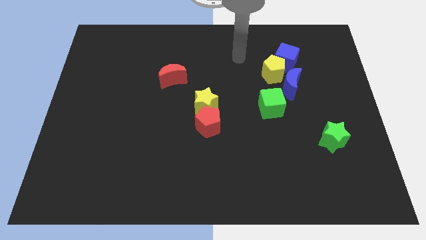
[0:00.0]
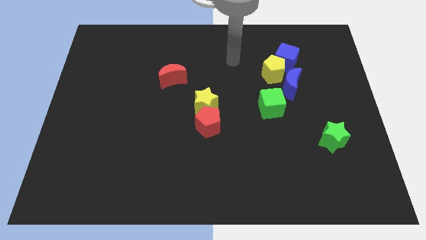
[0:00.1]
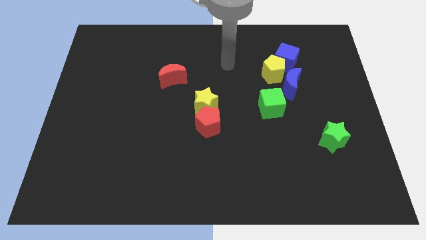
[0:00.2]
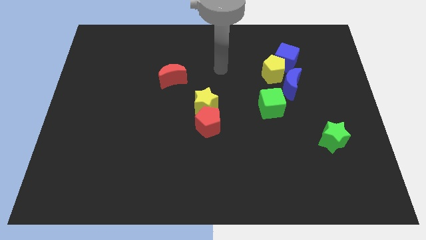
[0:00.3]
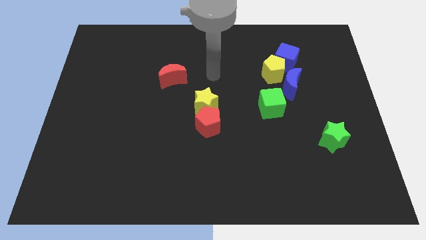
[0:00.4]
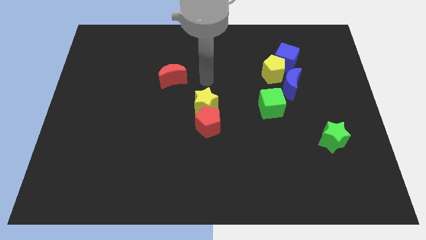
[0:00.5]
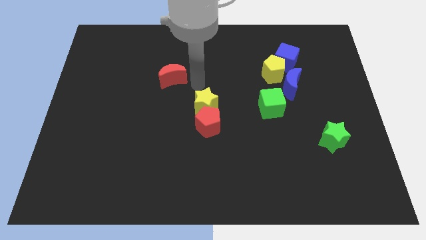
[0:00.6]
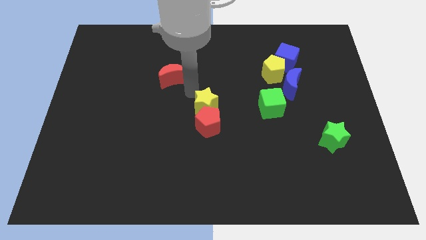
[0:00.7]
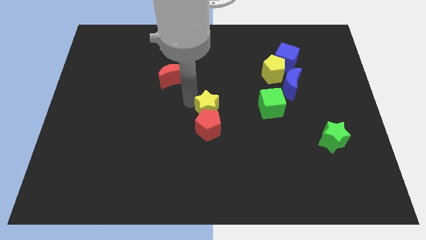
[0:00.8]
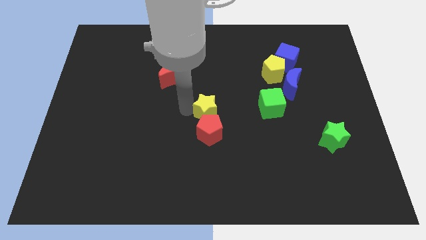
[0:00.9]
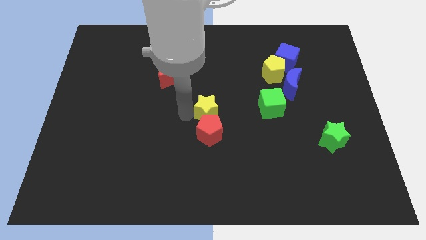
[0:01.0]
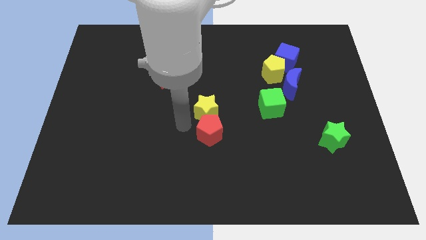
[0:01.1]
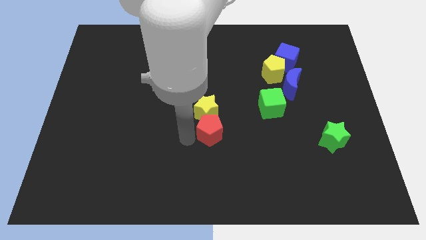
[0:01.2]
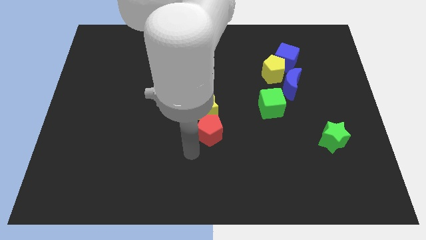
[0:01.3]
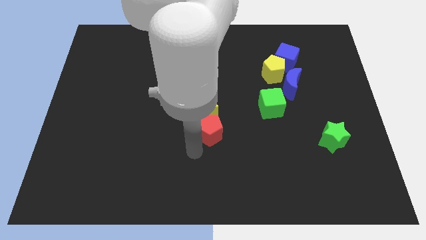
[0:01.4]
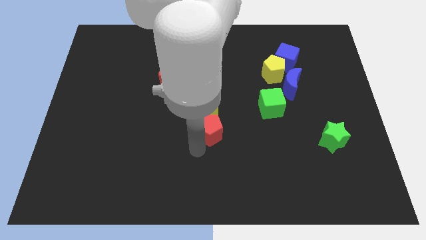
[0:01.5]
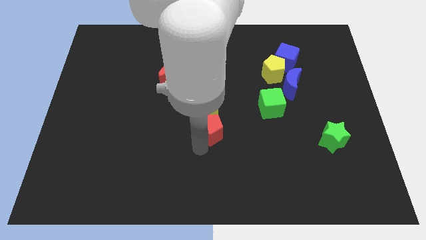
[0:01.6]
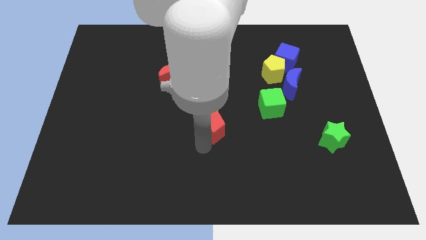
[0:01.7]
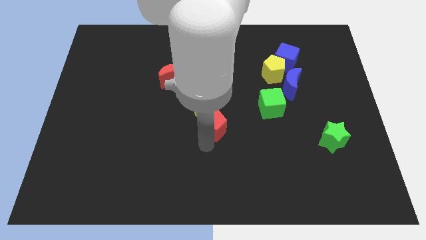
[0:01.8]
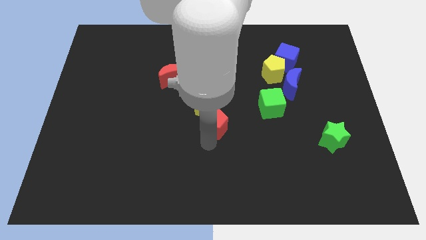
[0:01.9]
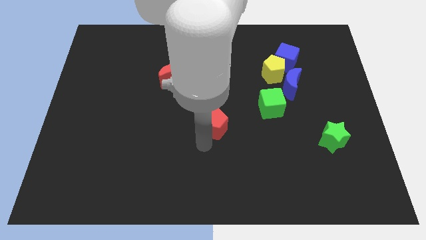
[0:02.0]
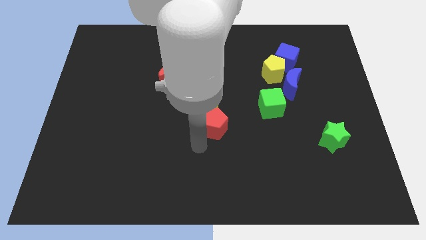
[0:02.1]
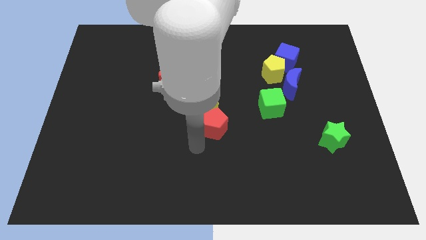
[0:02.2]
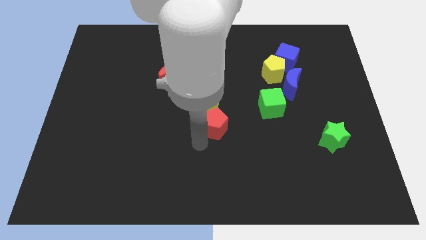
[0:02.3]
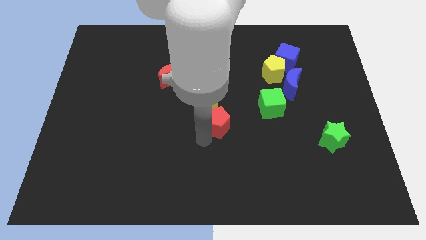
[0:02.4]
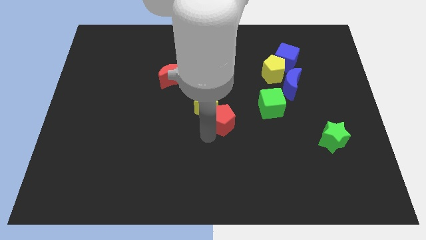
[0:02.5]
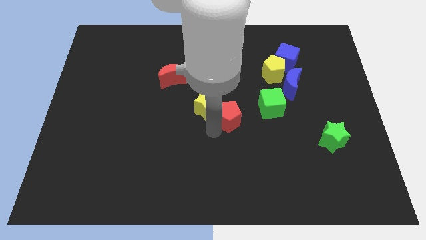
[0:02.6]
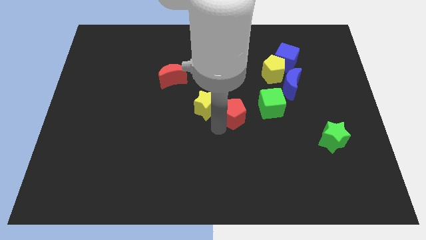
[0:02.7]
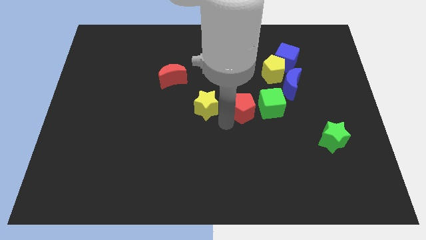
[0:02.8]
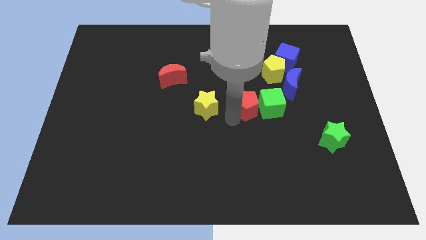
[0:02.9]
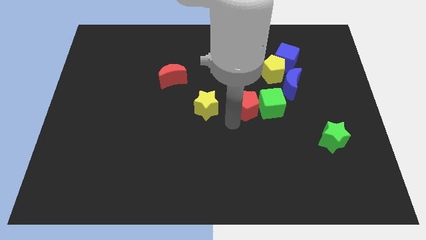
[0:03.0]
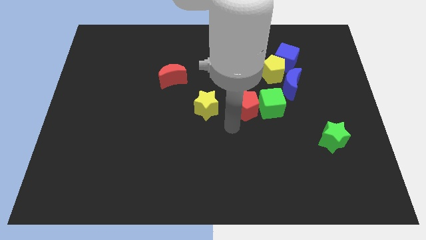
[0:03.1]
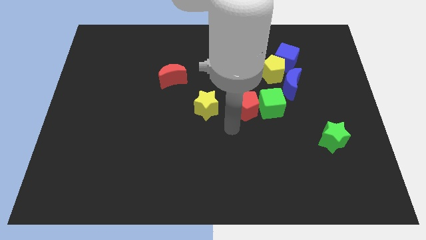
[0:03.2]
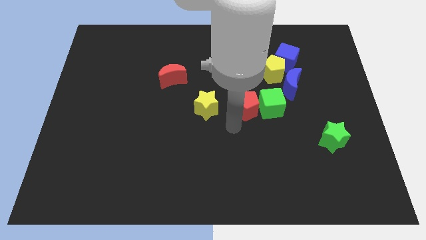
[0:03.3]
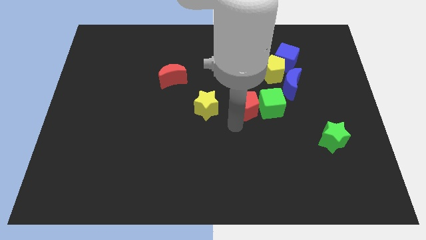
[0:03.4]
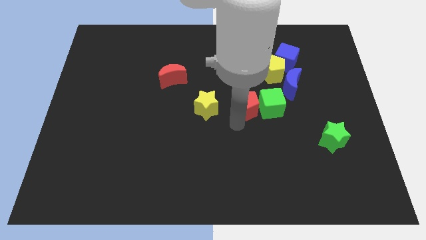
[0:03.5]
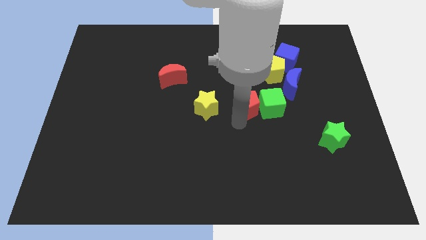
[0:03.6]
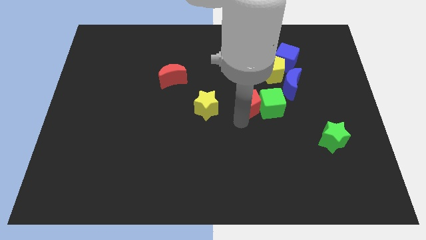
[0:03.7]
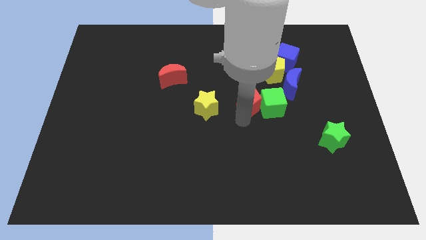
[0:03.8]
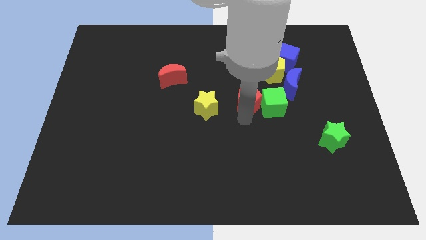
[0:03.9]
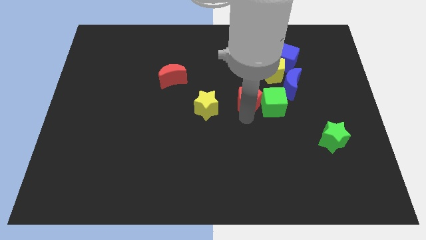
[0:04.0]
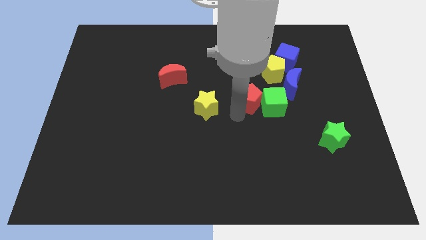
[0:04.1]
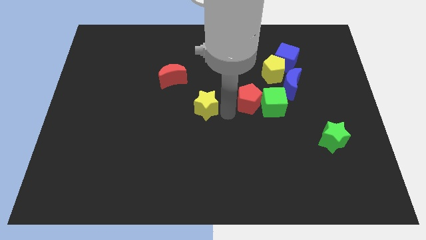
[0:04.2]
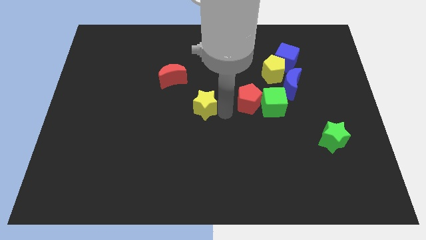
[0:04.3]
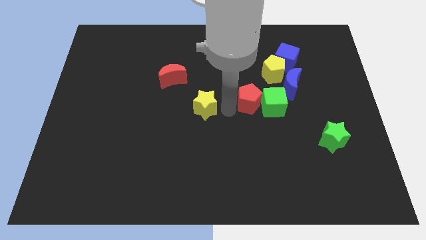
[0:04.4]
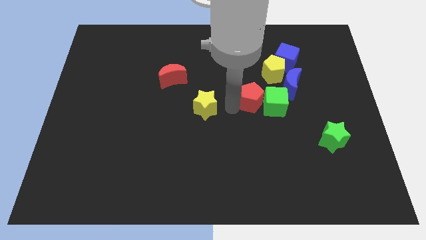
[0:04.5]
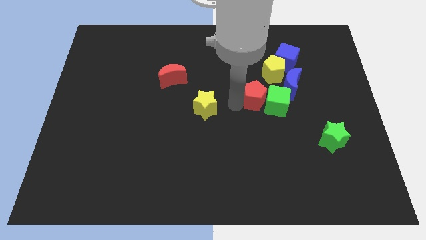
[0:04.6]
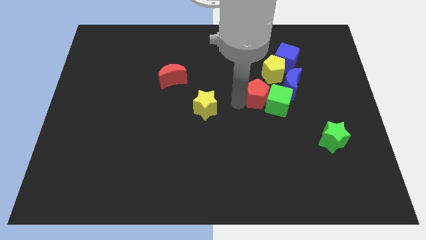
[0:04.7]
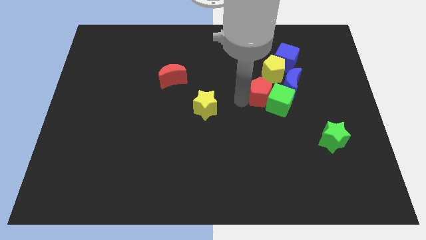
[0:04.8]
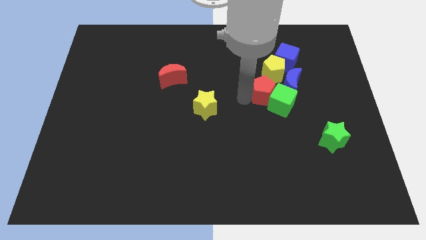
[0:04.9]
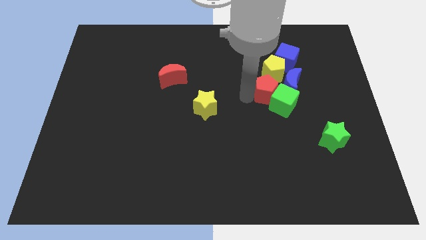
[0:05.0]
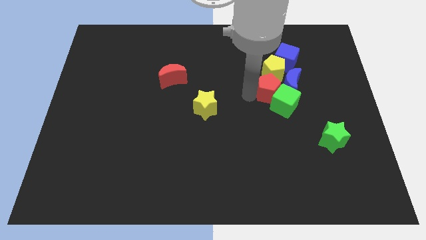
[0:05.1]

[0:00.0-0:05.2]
slide the red pentagon to the blue moon

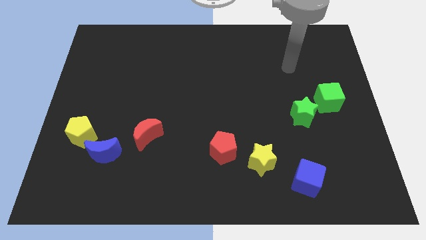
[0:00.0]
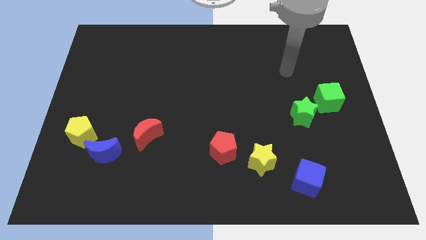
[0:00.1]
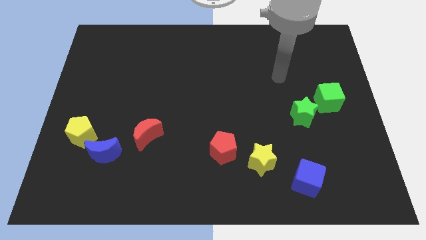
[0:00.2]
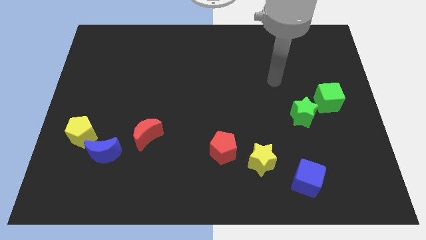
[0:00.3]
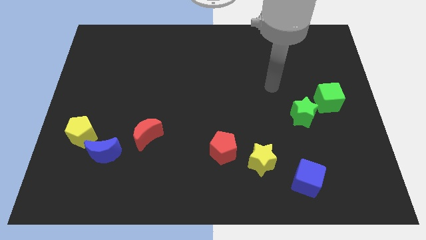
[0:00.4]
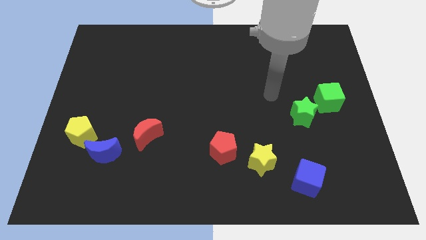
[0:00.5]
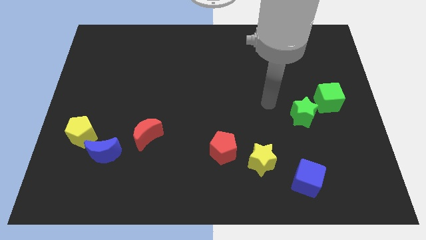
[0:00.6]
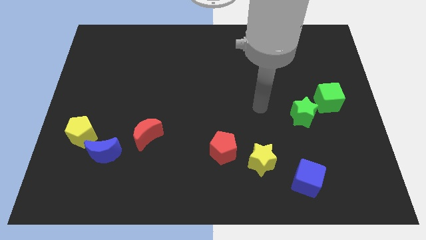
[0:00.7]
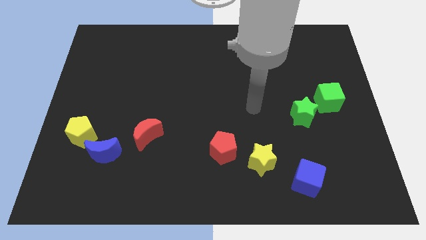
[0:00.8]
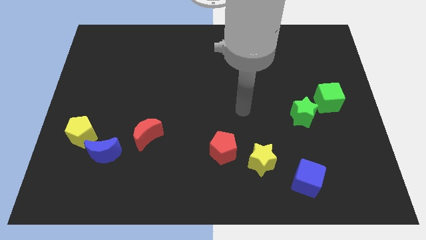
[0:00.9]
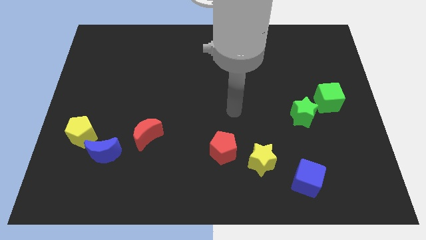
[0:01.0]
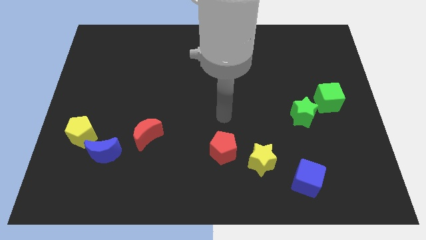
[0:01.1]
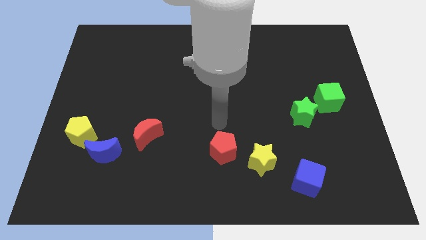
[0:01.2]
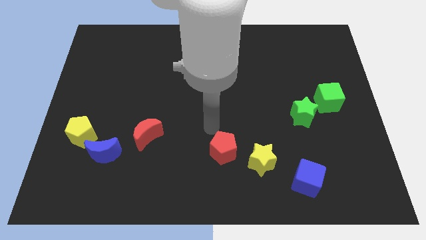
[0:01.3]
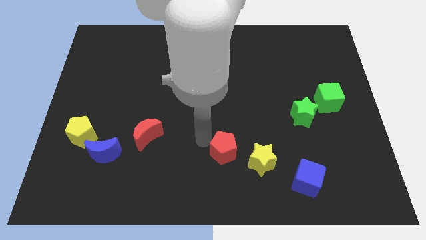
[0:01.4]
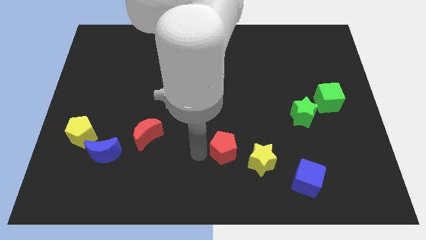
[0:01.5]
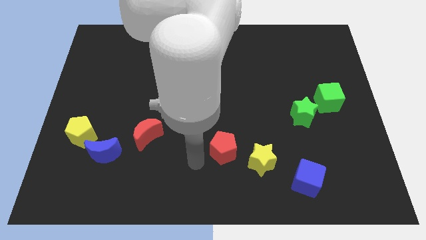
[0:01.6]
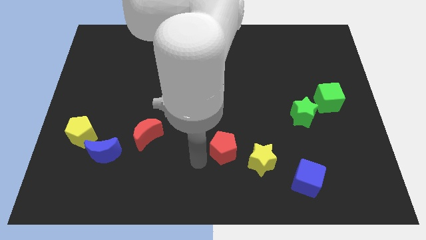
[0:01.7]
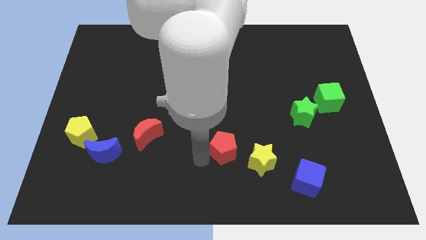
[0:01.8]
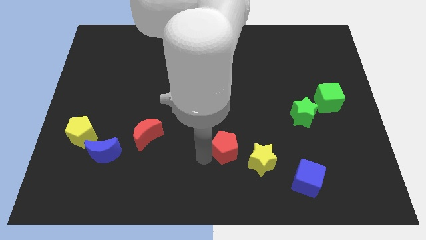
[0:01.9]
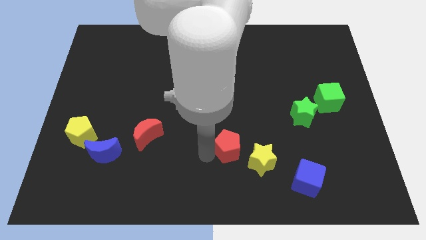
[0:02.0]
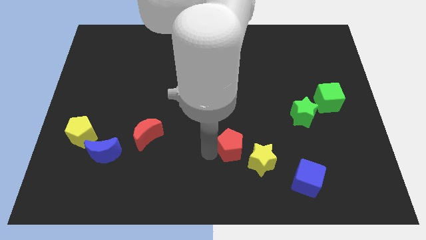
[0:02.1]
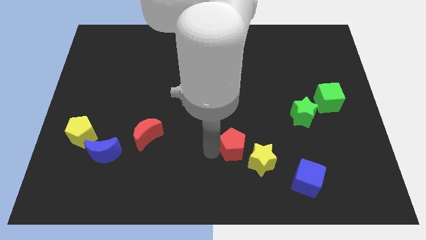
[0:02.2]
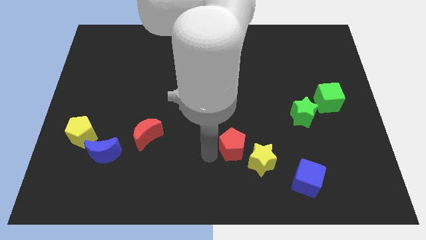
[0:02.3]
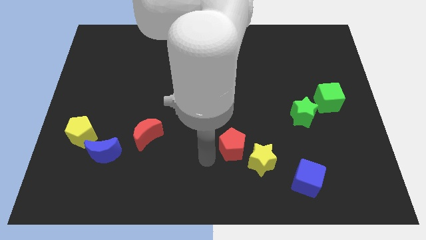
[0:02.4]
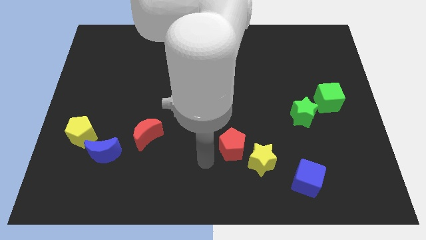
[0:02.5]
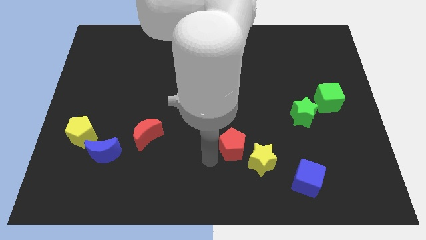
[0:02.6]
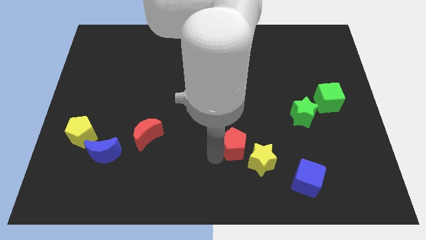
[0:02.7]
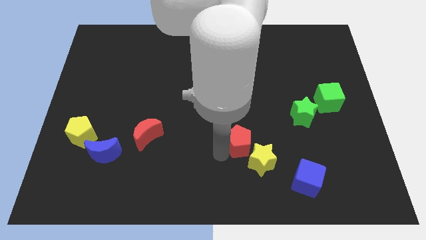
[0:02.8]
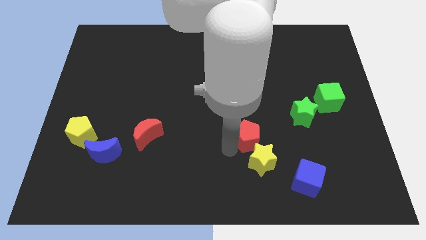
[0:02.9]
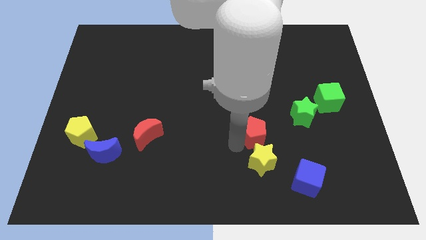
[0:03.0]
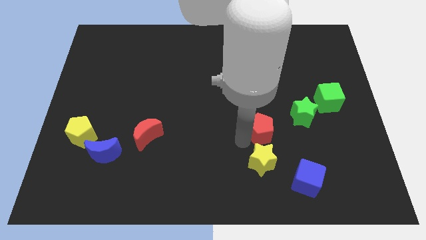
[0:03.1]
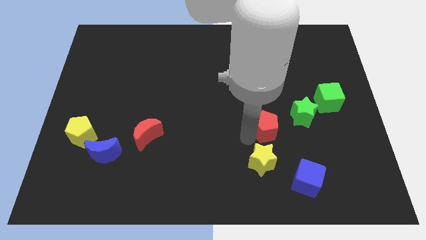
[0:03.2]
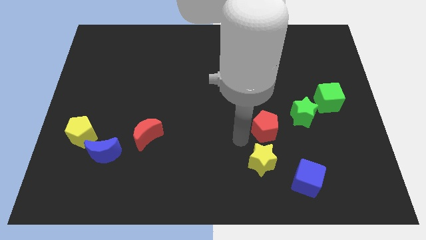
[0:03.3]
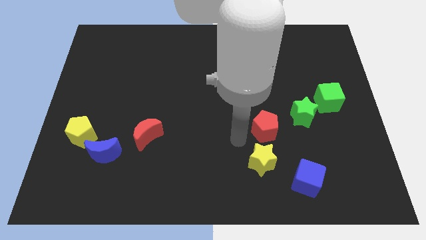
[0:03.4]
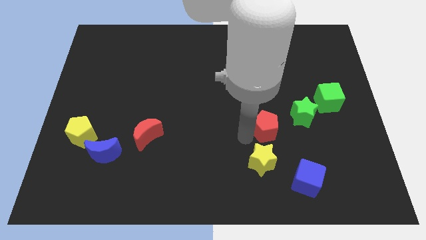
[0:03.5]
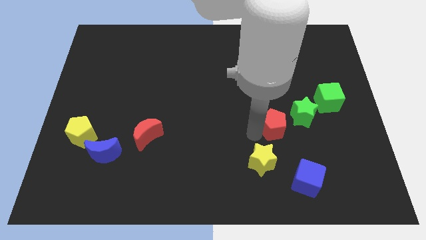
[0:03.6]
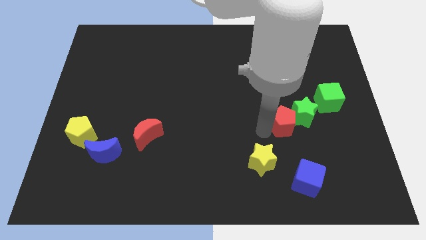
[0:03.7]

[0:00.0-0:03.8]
move the red pentagon to the green star
